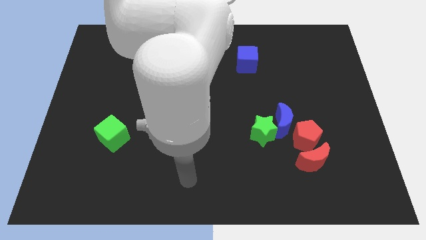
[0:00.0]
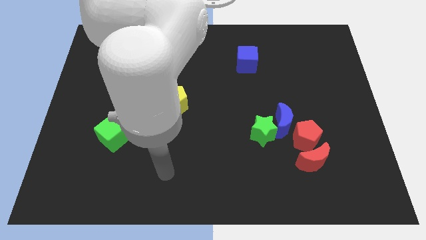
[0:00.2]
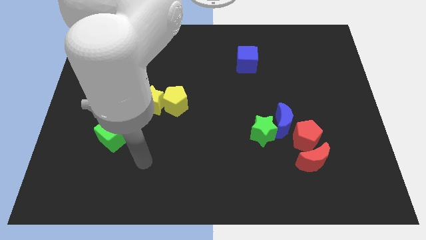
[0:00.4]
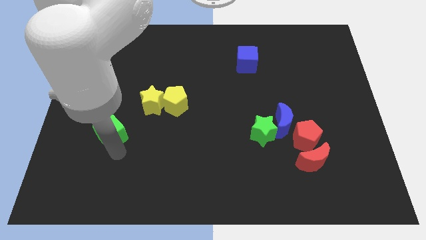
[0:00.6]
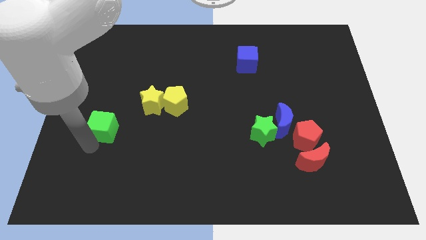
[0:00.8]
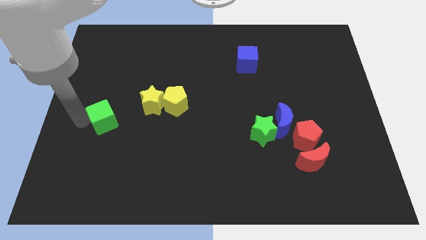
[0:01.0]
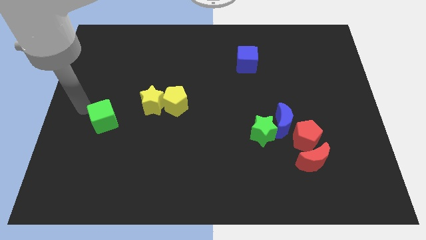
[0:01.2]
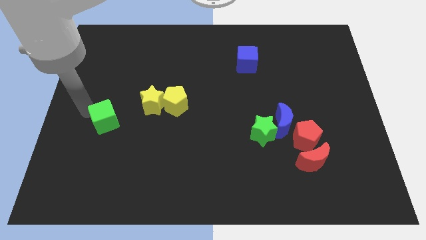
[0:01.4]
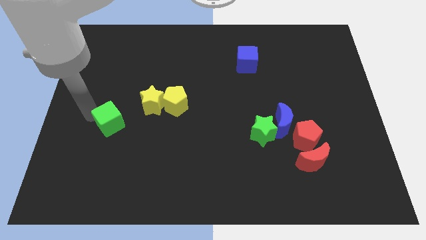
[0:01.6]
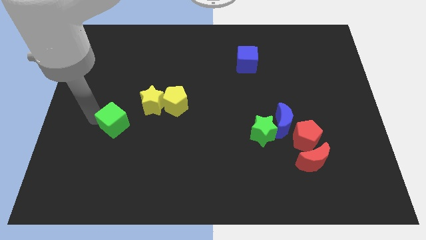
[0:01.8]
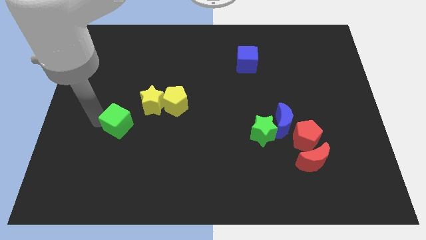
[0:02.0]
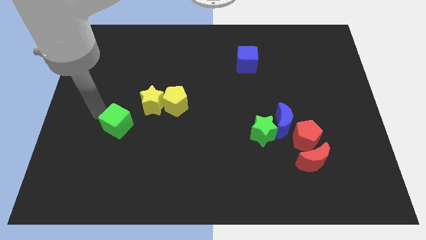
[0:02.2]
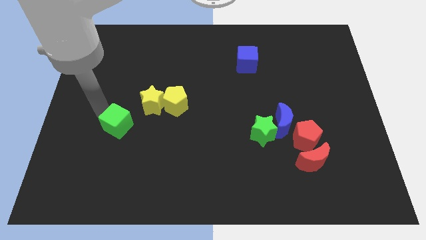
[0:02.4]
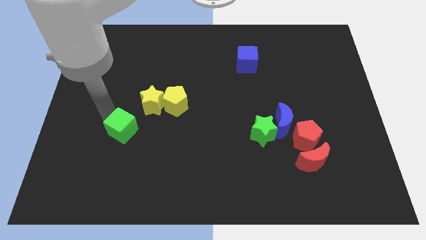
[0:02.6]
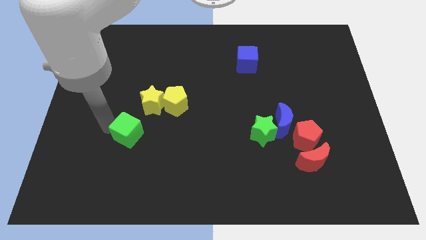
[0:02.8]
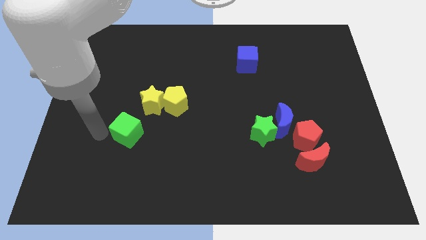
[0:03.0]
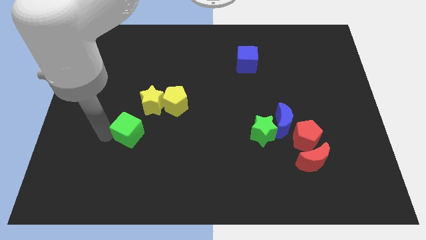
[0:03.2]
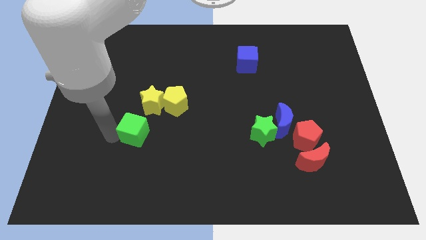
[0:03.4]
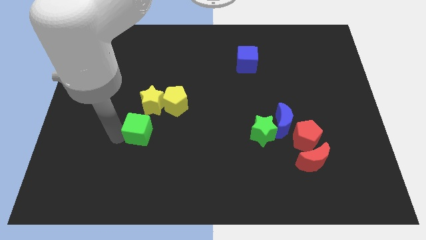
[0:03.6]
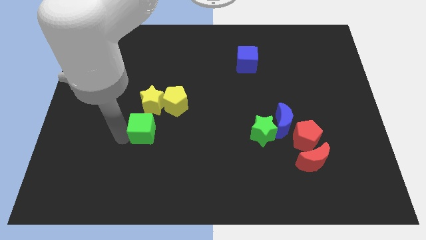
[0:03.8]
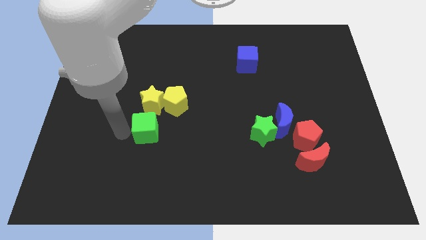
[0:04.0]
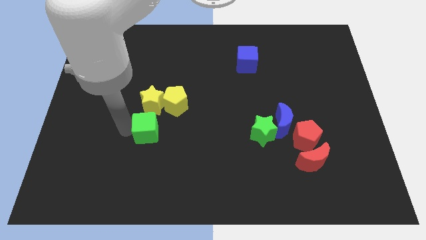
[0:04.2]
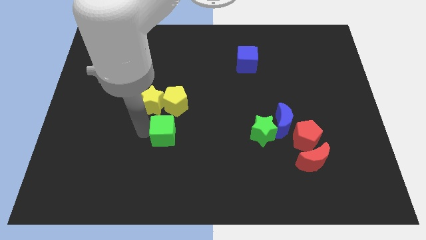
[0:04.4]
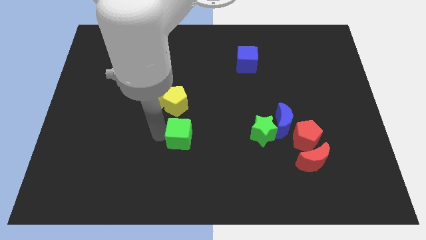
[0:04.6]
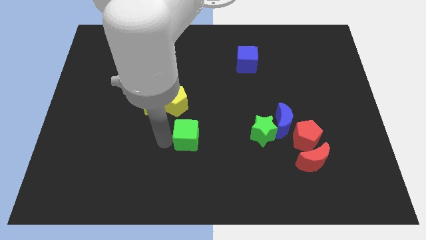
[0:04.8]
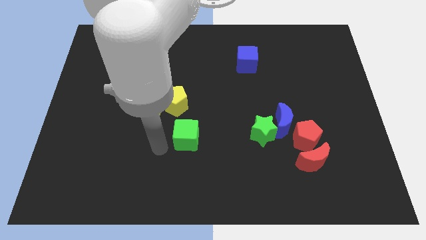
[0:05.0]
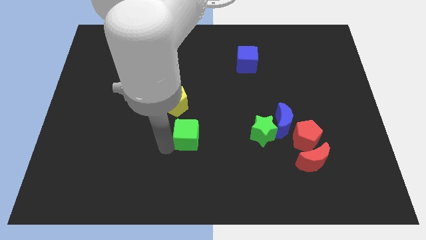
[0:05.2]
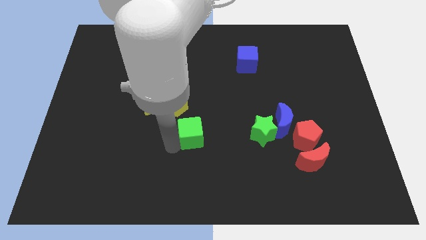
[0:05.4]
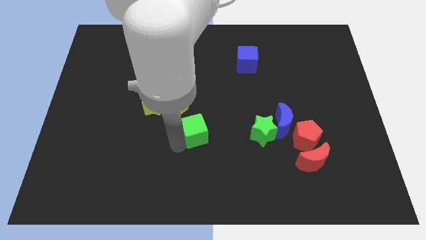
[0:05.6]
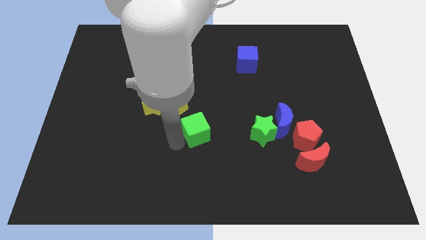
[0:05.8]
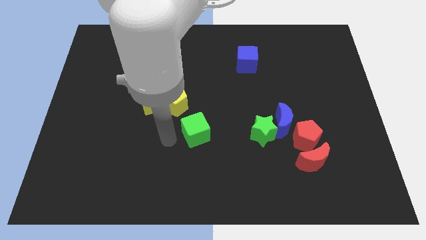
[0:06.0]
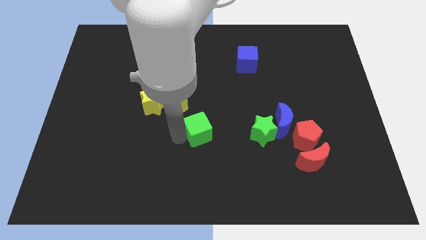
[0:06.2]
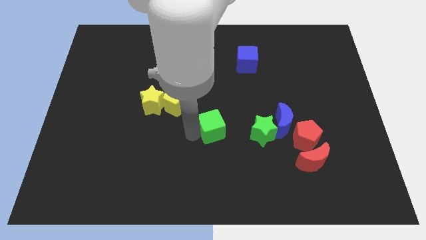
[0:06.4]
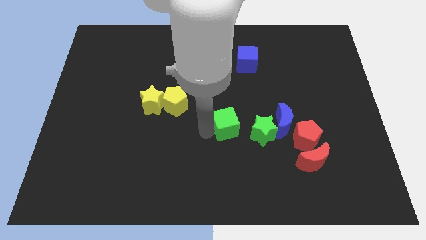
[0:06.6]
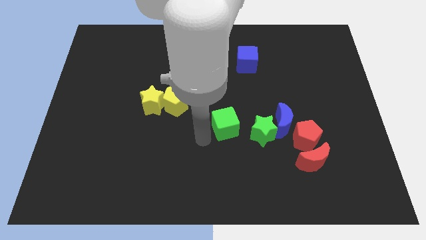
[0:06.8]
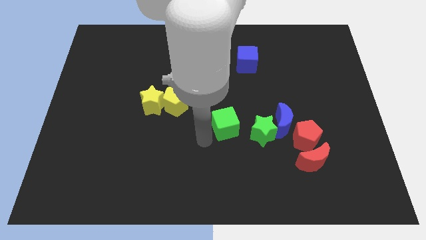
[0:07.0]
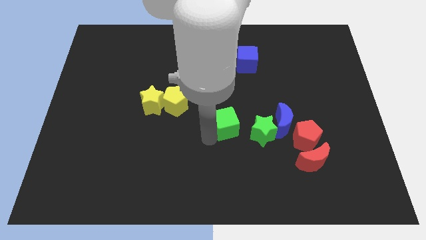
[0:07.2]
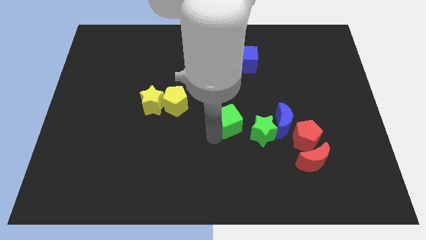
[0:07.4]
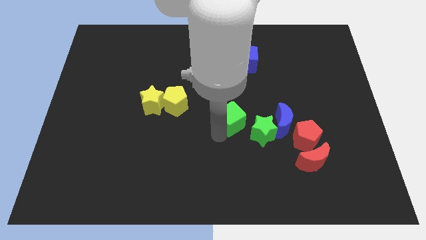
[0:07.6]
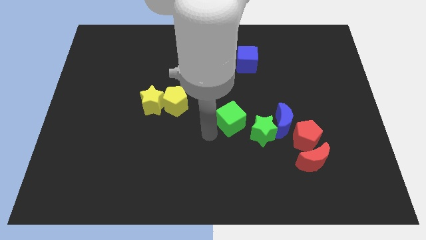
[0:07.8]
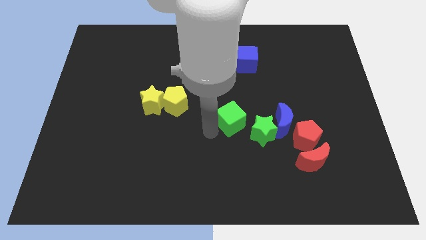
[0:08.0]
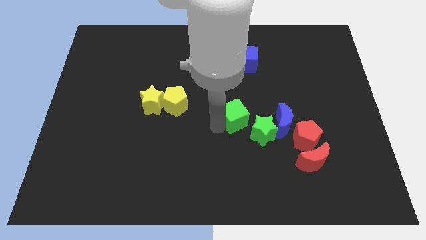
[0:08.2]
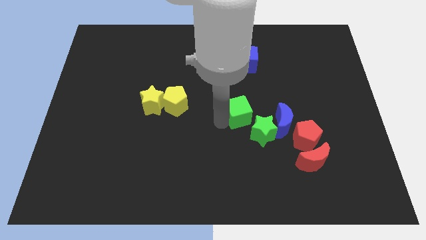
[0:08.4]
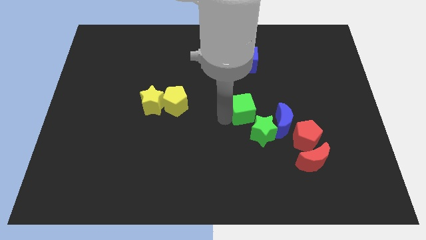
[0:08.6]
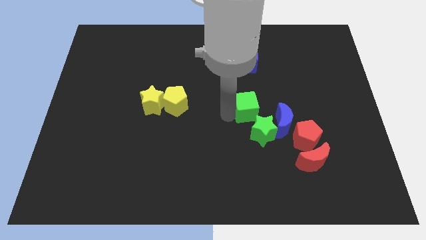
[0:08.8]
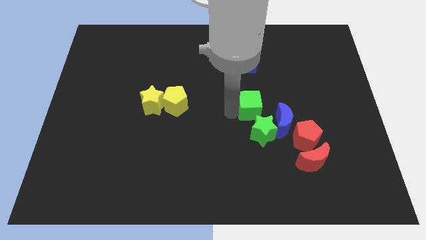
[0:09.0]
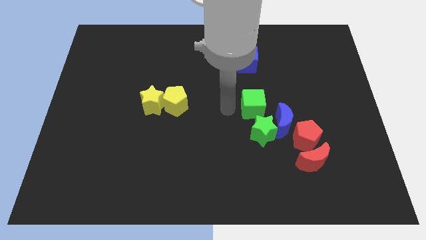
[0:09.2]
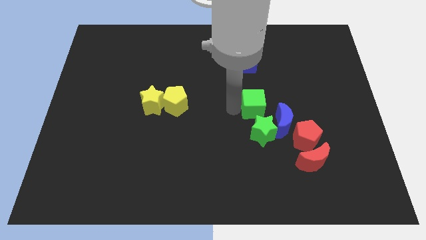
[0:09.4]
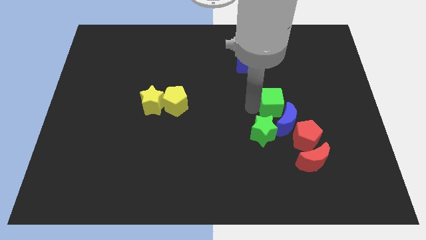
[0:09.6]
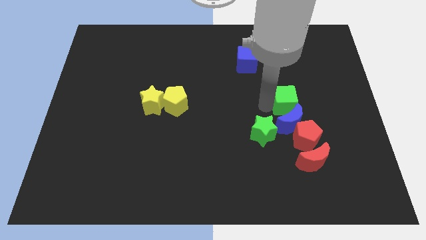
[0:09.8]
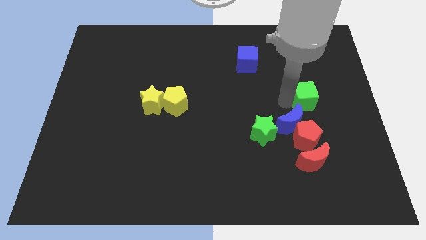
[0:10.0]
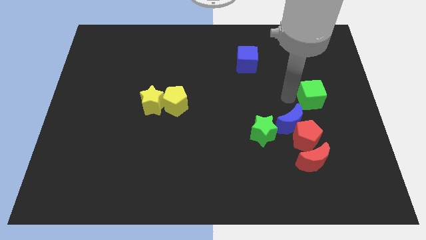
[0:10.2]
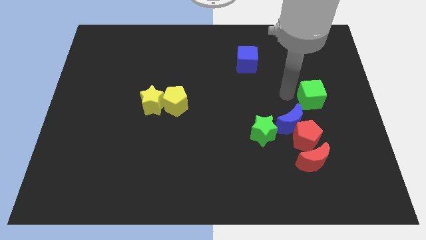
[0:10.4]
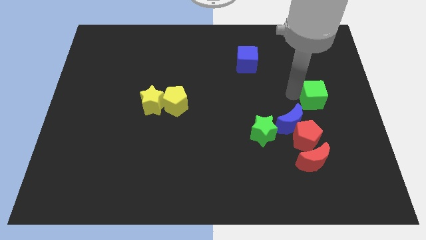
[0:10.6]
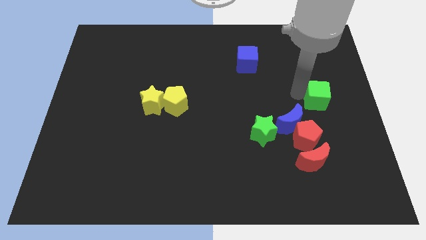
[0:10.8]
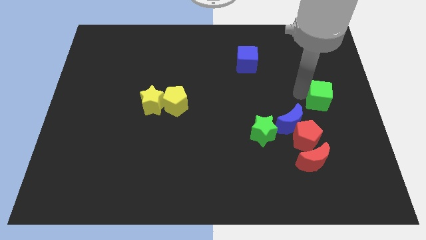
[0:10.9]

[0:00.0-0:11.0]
slide the green cube to the right side of the board

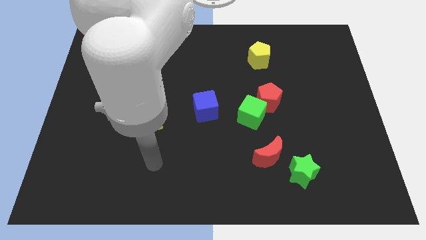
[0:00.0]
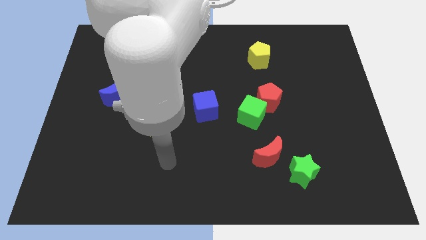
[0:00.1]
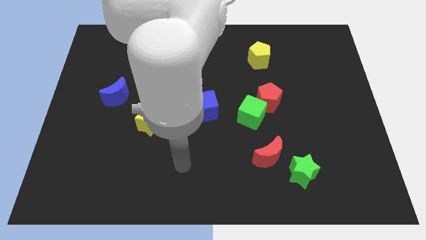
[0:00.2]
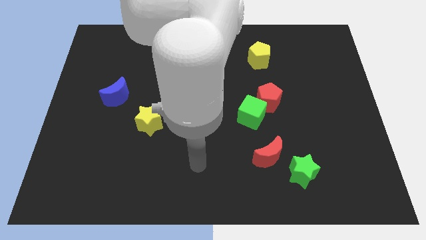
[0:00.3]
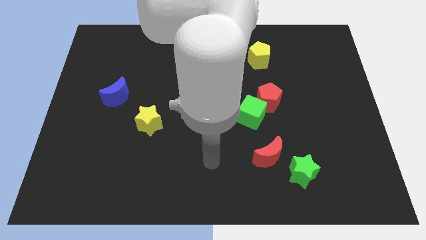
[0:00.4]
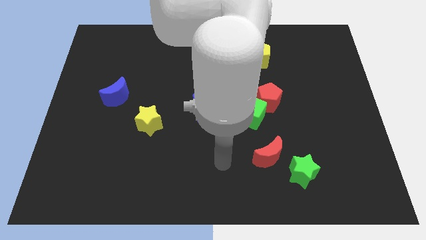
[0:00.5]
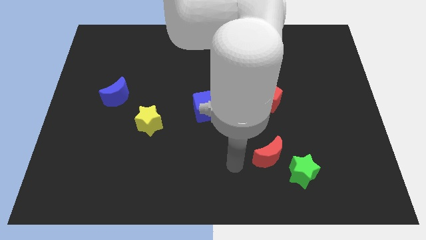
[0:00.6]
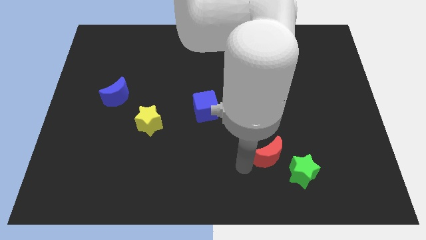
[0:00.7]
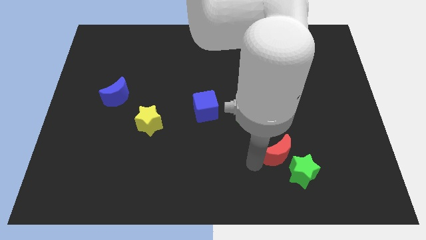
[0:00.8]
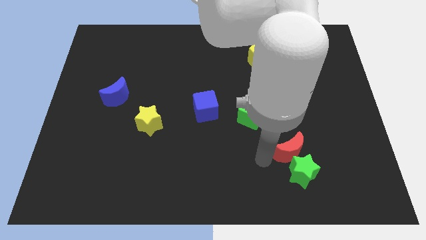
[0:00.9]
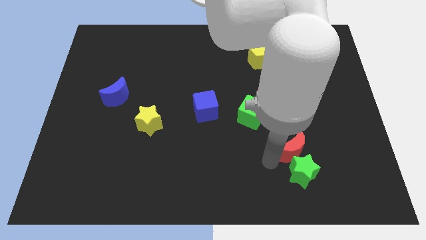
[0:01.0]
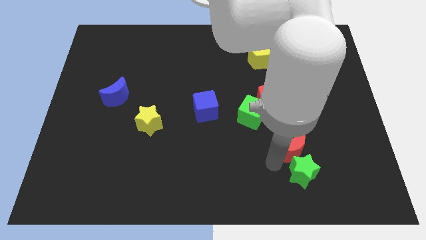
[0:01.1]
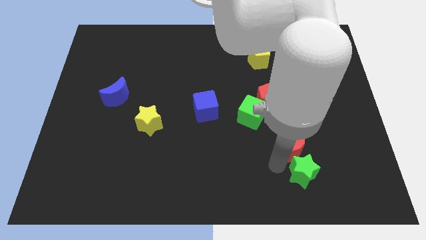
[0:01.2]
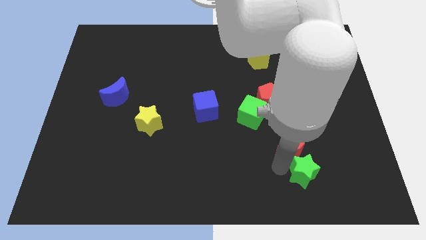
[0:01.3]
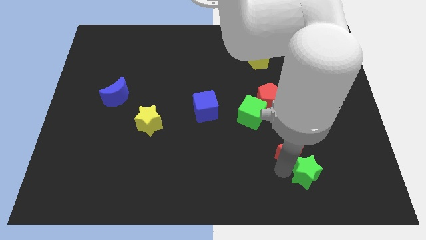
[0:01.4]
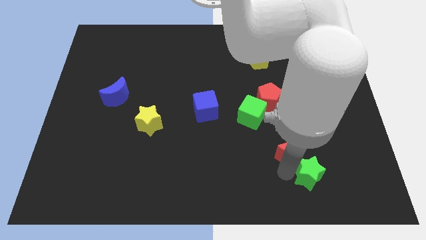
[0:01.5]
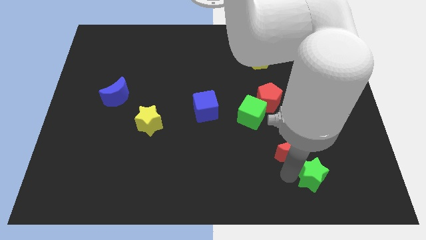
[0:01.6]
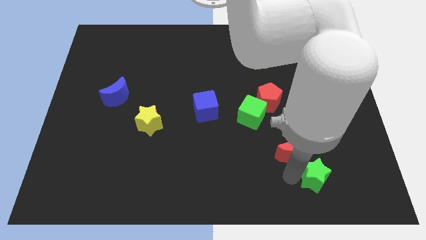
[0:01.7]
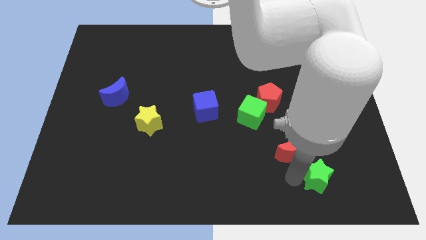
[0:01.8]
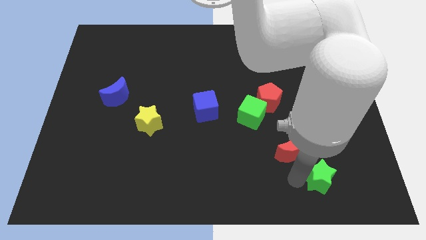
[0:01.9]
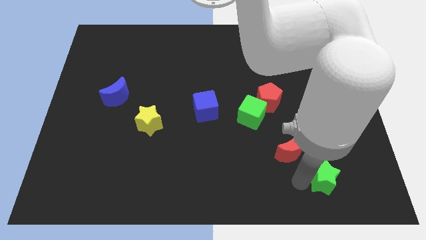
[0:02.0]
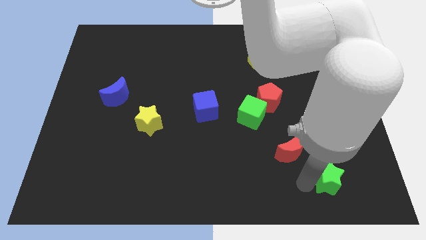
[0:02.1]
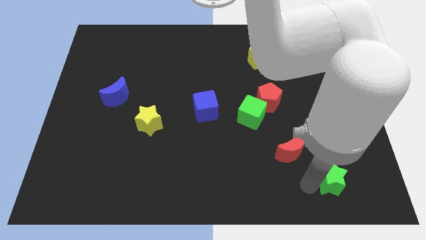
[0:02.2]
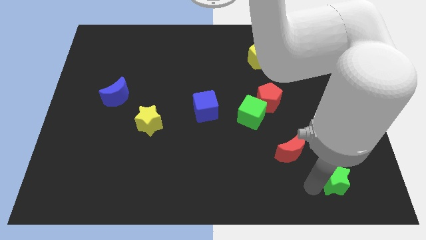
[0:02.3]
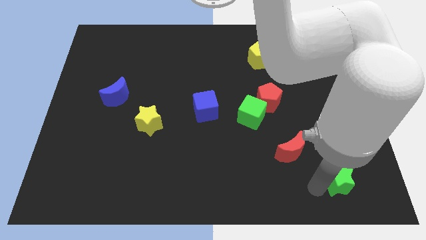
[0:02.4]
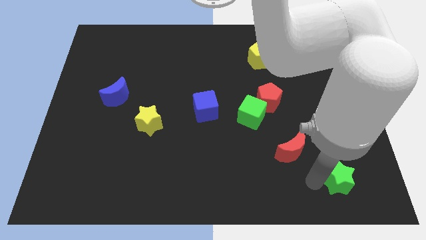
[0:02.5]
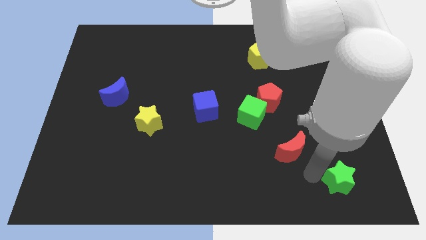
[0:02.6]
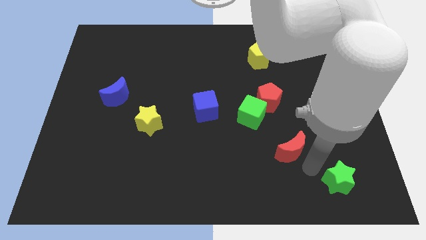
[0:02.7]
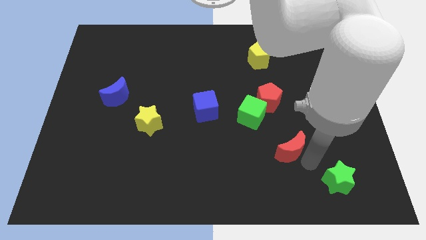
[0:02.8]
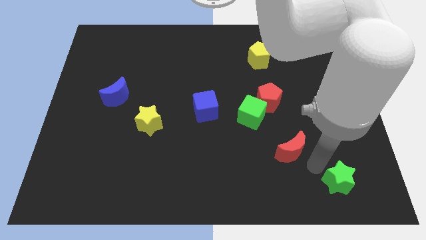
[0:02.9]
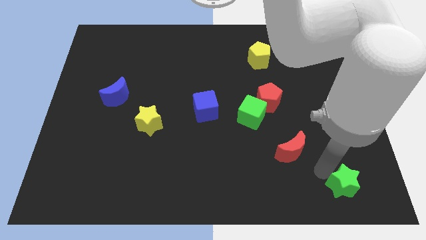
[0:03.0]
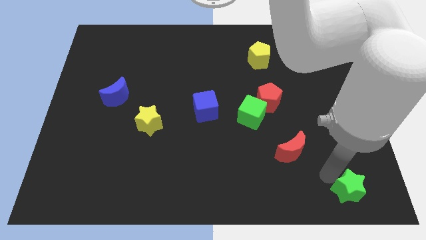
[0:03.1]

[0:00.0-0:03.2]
push the green star to the bottom right of the board
